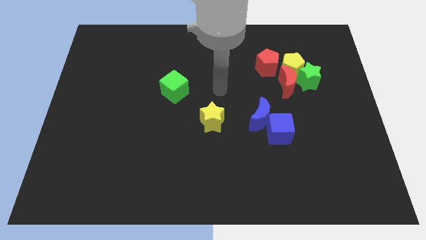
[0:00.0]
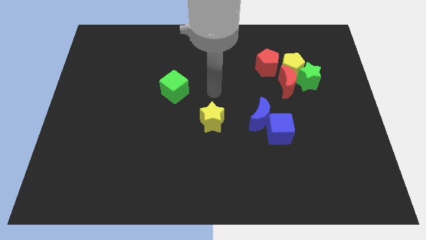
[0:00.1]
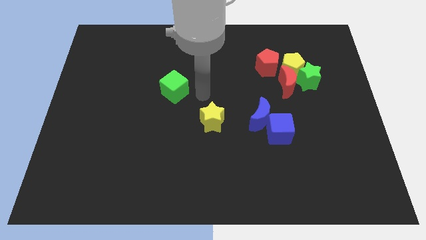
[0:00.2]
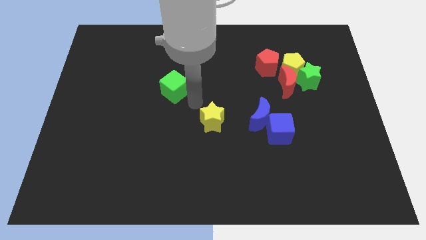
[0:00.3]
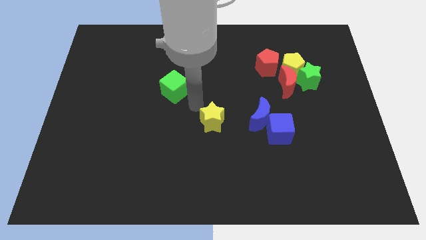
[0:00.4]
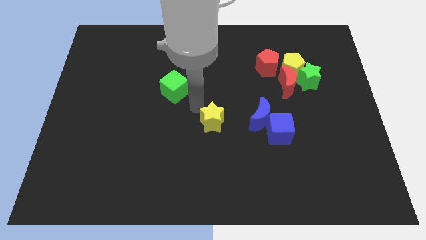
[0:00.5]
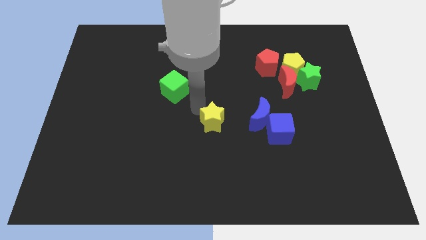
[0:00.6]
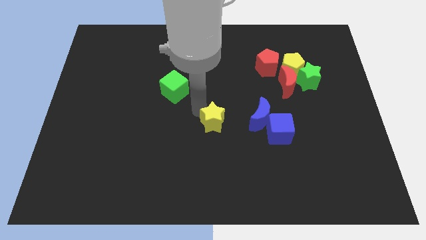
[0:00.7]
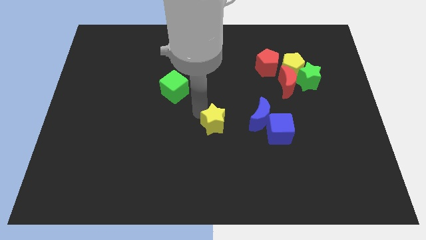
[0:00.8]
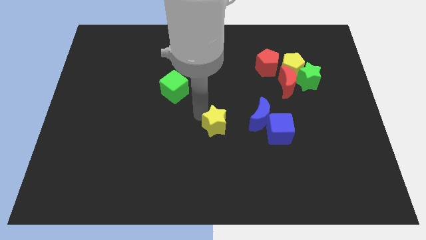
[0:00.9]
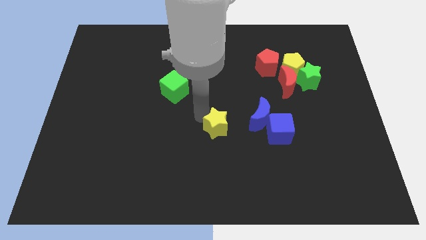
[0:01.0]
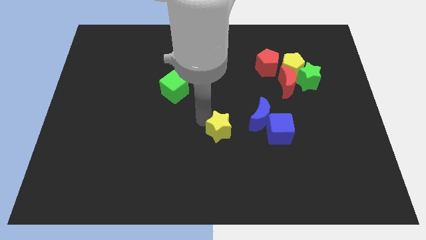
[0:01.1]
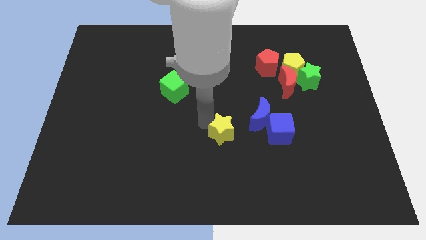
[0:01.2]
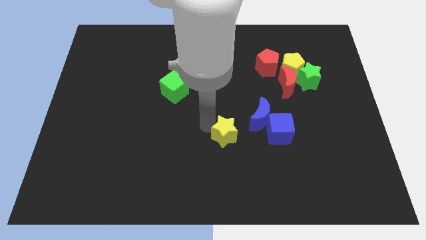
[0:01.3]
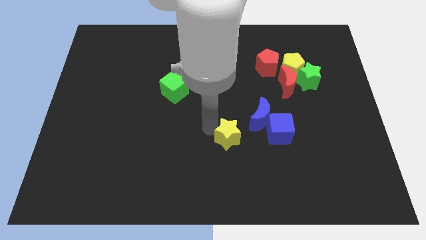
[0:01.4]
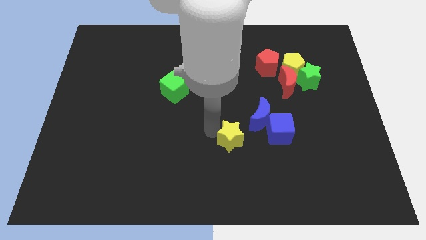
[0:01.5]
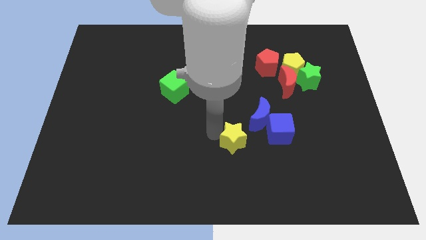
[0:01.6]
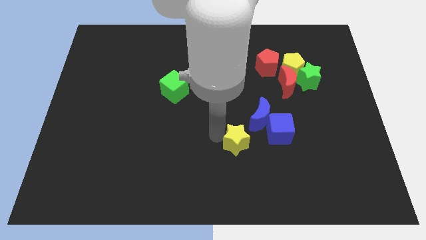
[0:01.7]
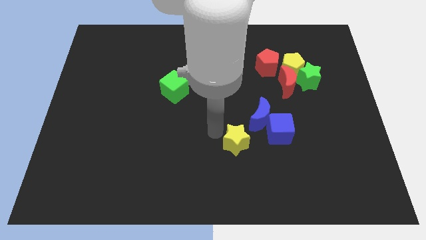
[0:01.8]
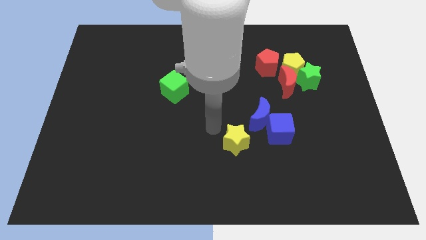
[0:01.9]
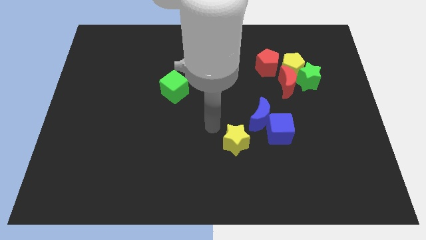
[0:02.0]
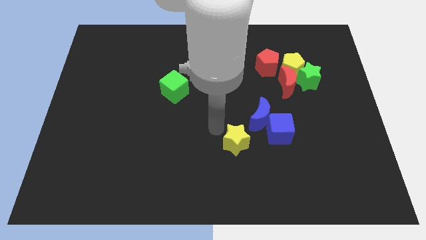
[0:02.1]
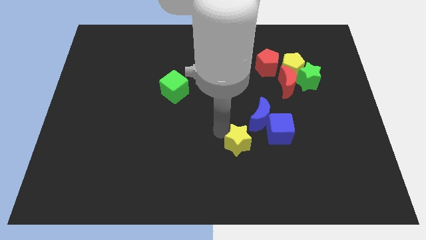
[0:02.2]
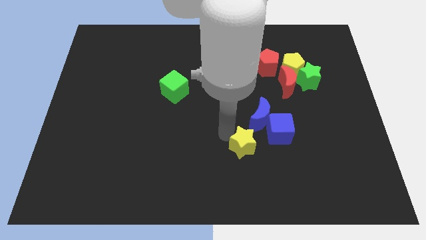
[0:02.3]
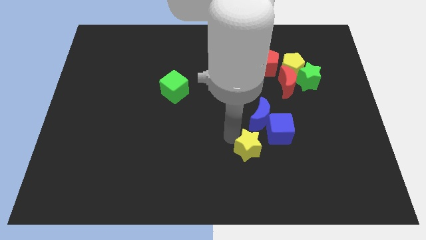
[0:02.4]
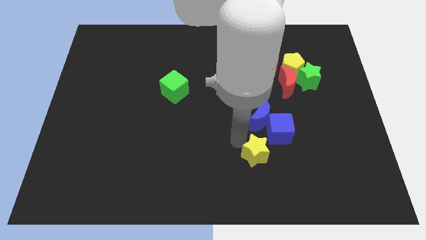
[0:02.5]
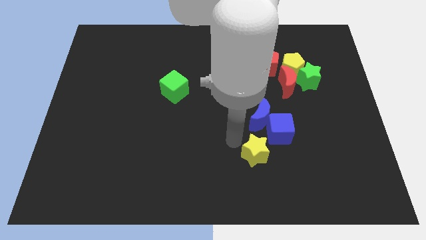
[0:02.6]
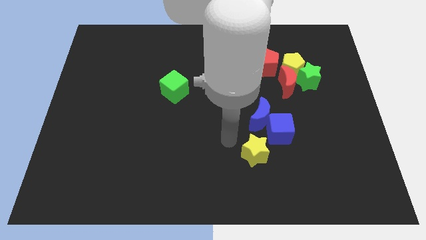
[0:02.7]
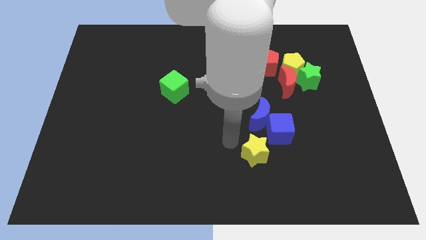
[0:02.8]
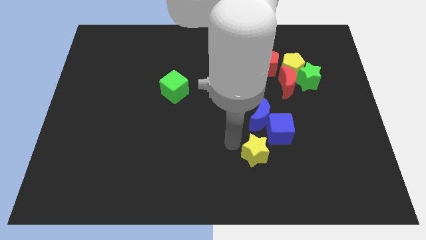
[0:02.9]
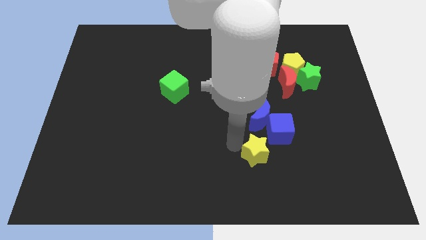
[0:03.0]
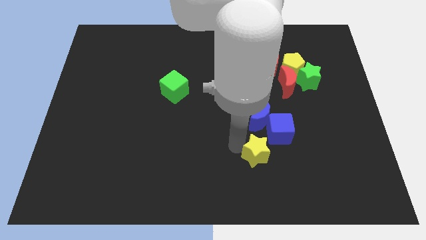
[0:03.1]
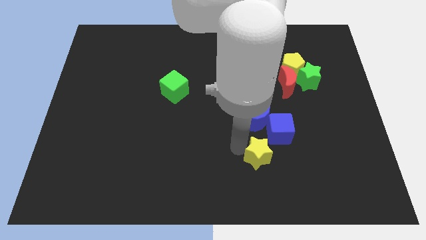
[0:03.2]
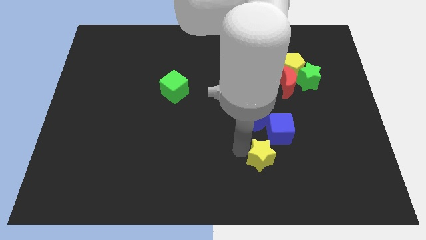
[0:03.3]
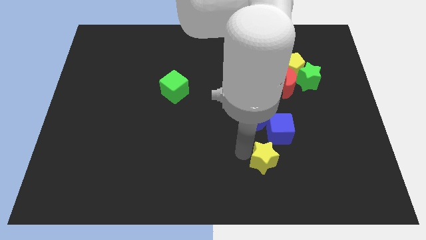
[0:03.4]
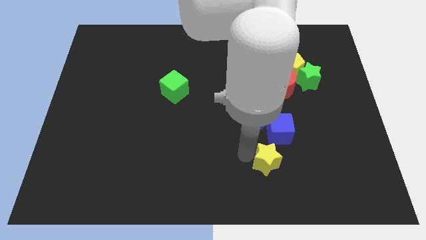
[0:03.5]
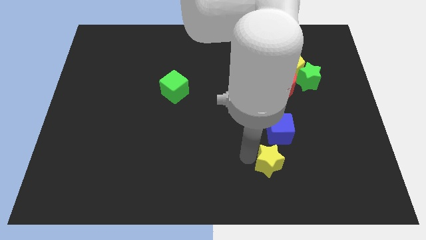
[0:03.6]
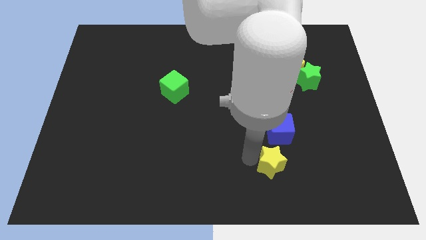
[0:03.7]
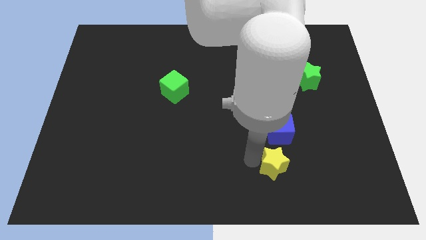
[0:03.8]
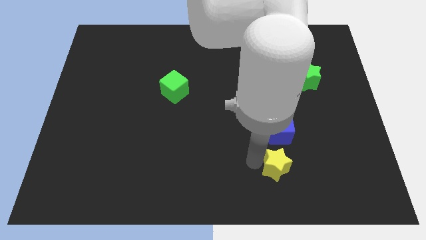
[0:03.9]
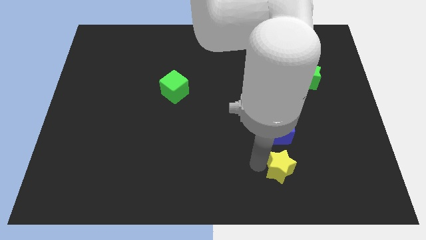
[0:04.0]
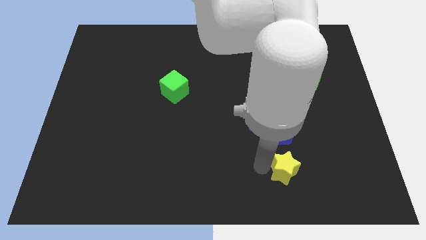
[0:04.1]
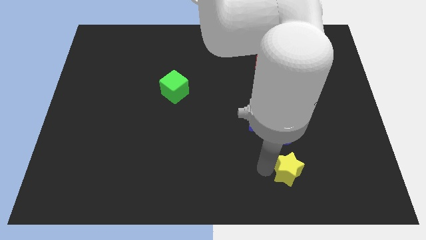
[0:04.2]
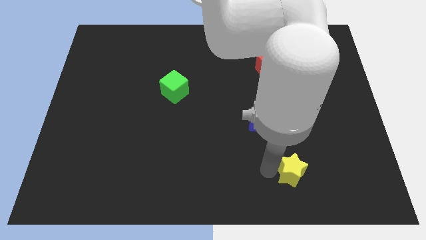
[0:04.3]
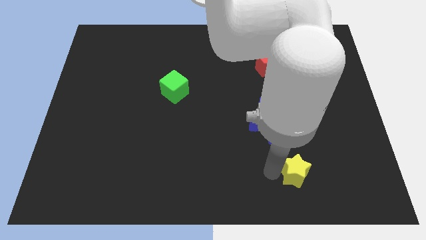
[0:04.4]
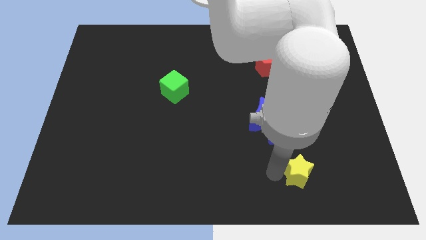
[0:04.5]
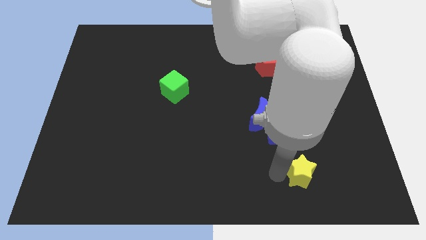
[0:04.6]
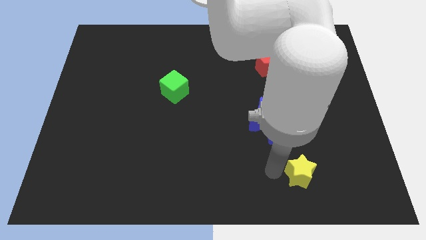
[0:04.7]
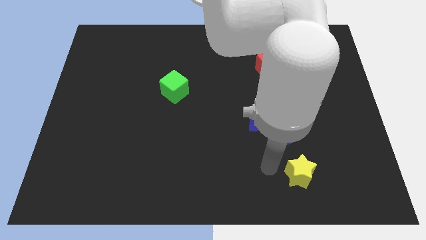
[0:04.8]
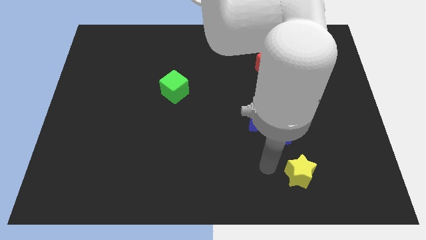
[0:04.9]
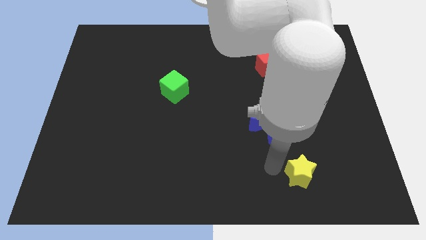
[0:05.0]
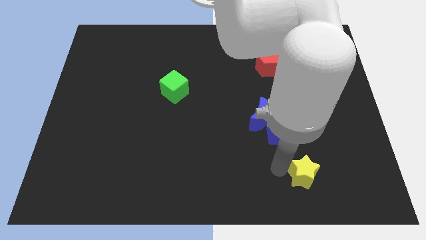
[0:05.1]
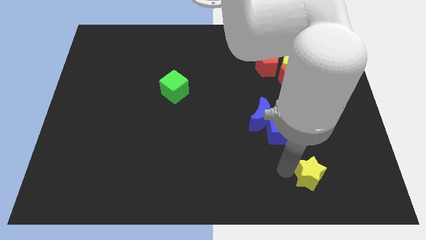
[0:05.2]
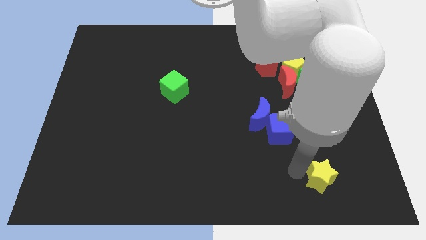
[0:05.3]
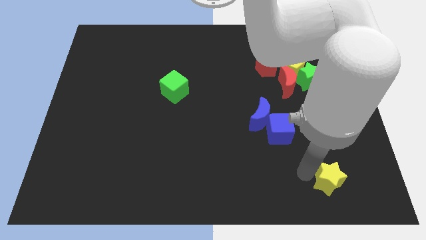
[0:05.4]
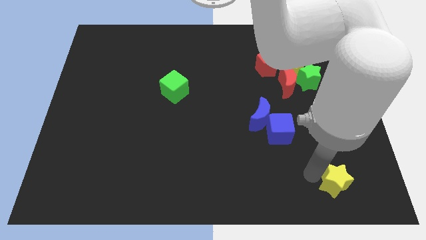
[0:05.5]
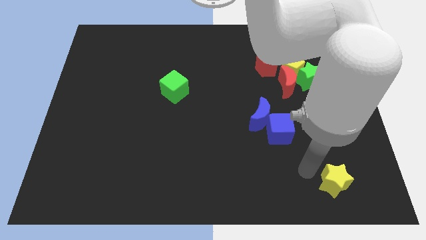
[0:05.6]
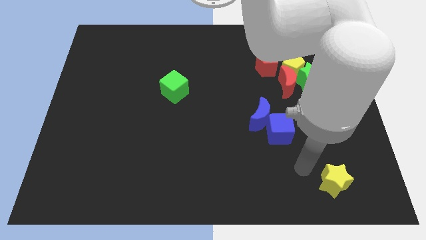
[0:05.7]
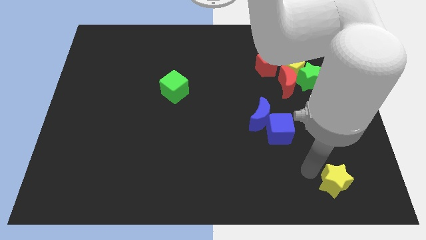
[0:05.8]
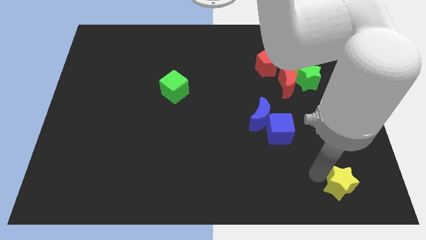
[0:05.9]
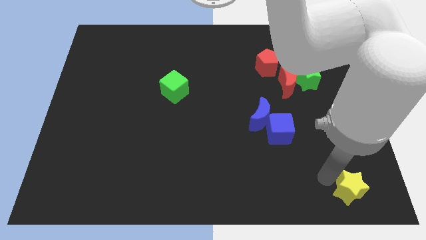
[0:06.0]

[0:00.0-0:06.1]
push the yellow star to the bottom right of the board

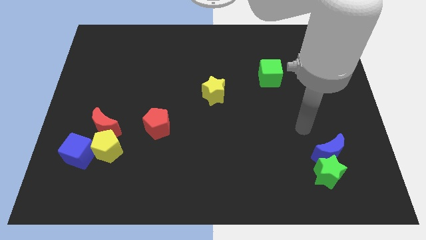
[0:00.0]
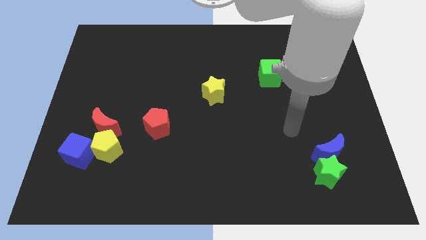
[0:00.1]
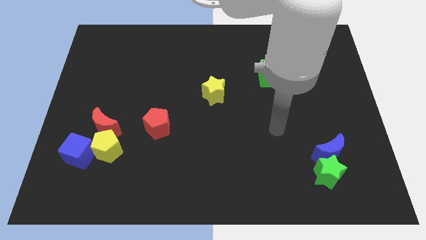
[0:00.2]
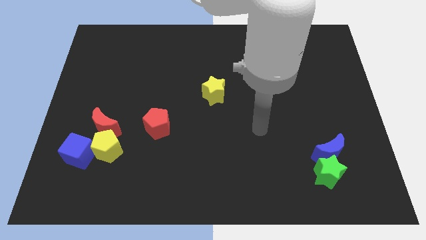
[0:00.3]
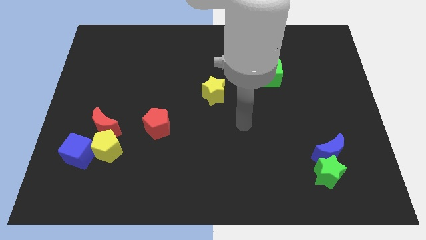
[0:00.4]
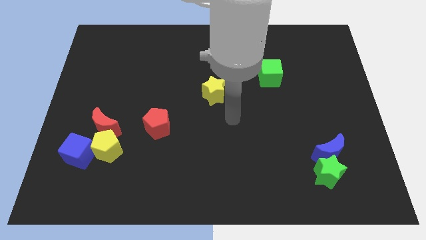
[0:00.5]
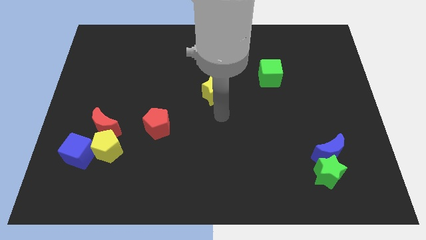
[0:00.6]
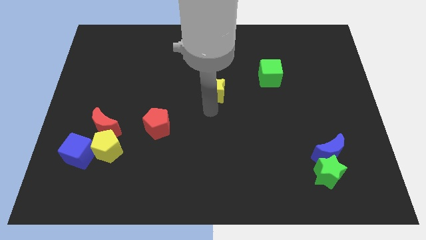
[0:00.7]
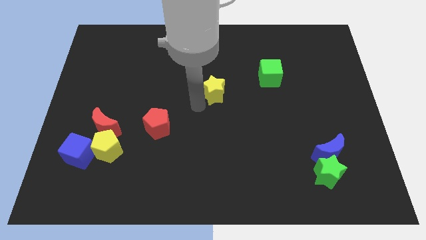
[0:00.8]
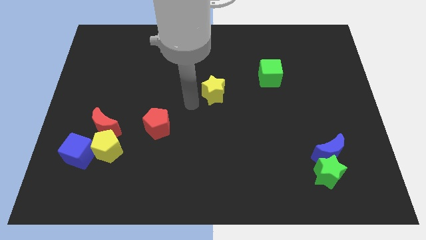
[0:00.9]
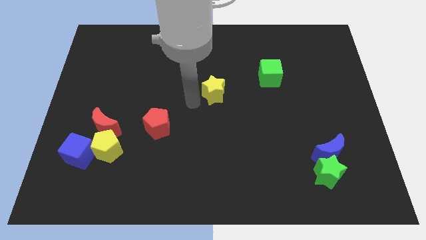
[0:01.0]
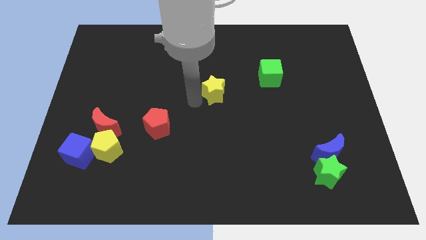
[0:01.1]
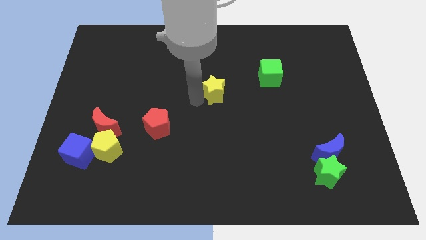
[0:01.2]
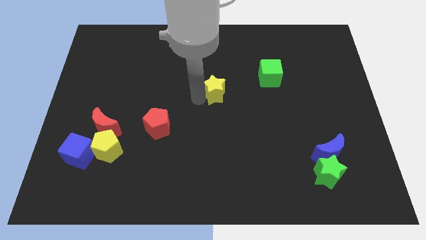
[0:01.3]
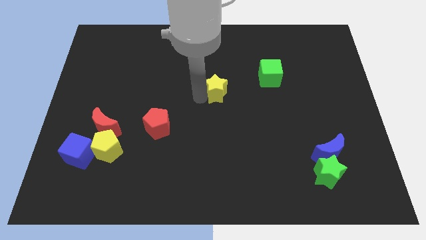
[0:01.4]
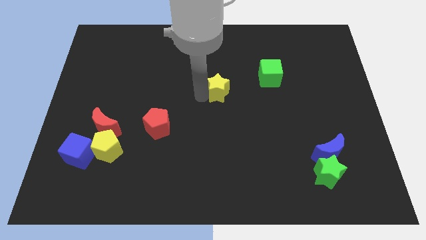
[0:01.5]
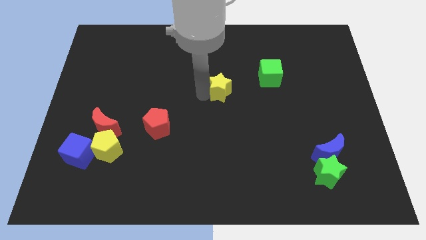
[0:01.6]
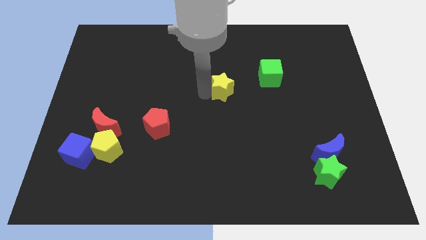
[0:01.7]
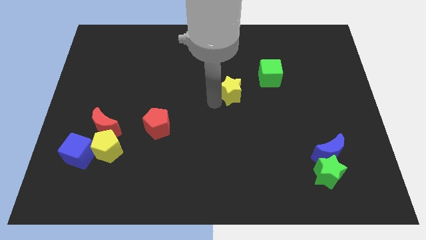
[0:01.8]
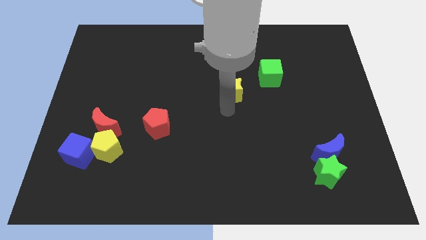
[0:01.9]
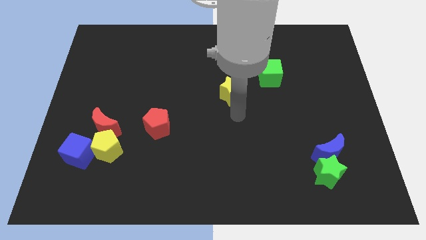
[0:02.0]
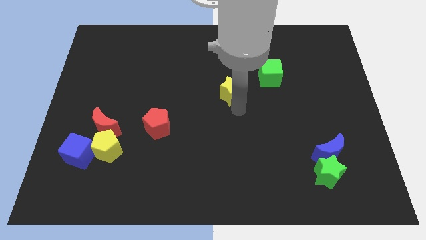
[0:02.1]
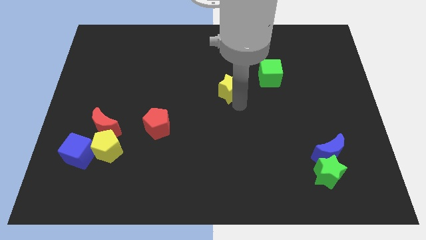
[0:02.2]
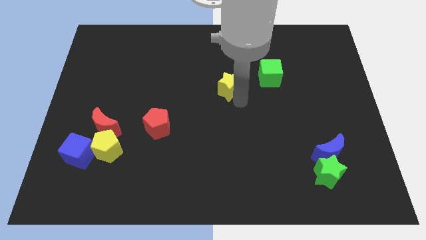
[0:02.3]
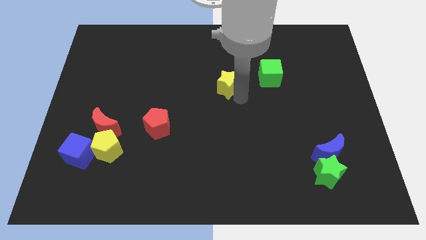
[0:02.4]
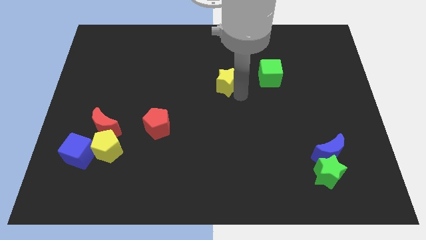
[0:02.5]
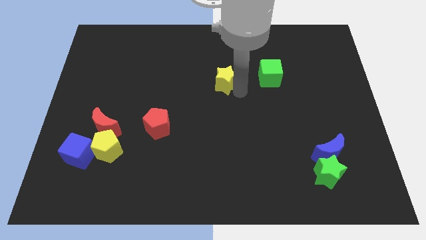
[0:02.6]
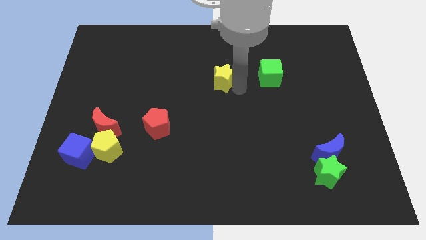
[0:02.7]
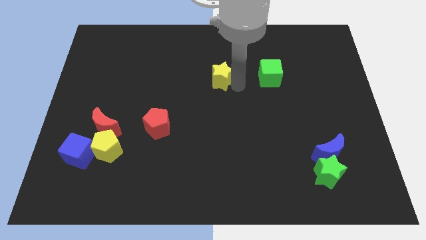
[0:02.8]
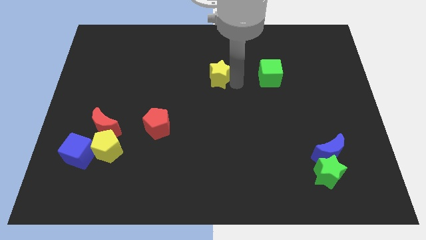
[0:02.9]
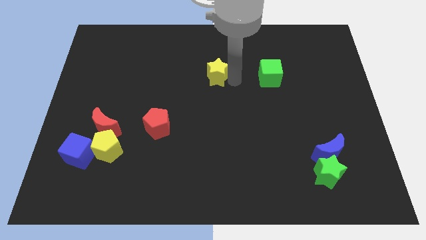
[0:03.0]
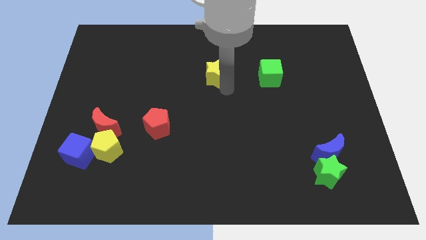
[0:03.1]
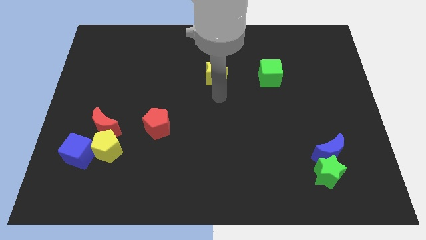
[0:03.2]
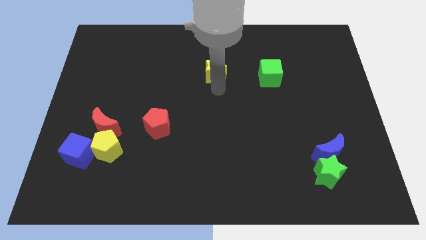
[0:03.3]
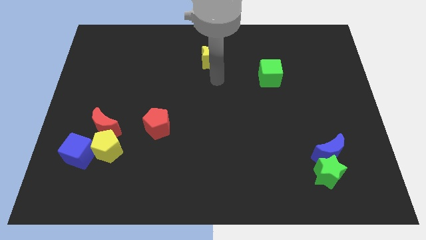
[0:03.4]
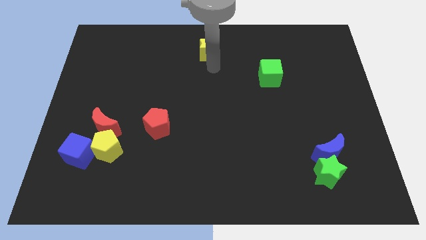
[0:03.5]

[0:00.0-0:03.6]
put the yellow star to the towards your base
